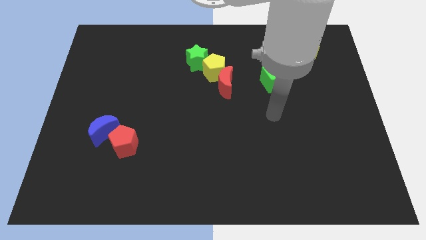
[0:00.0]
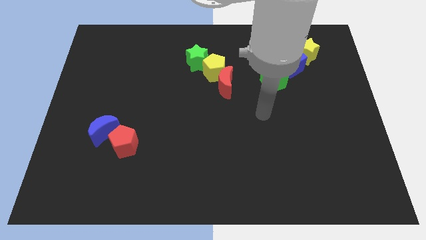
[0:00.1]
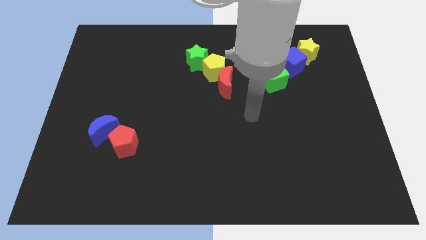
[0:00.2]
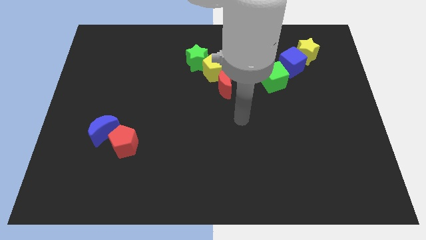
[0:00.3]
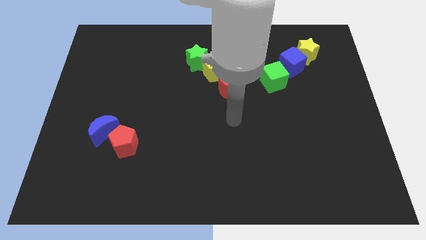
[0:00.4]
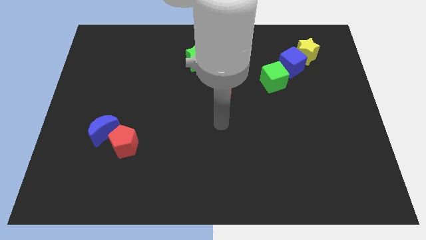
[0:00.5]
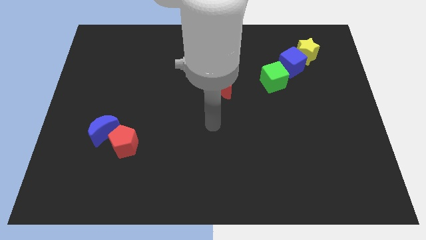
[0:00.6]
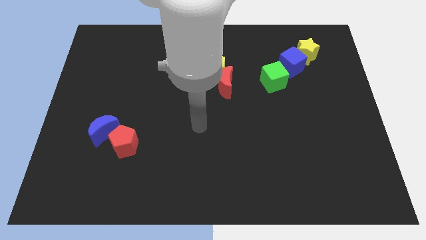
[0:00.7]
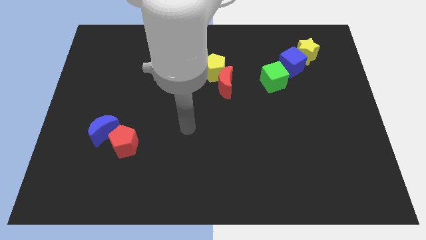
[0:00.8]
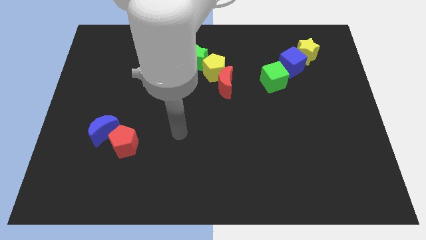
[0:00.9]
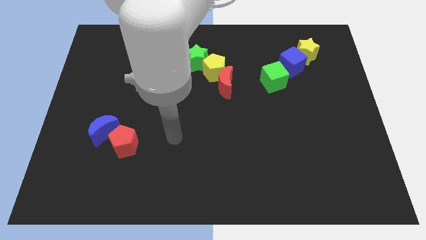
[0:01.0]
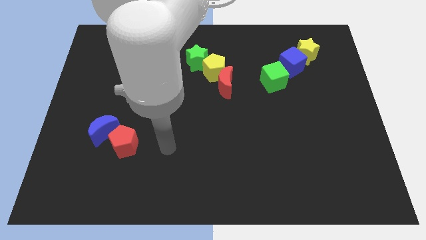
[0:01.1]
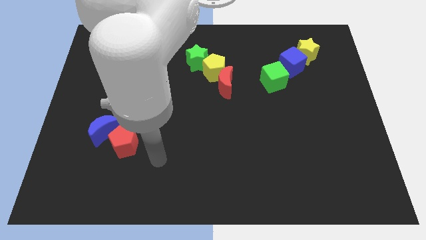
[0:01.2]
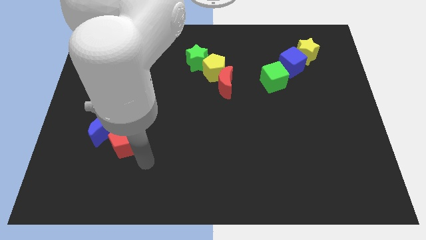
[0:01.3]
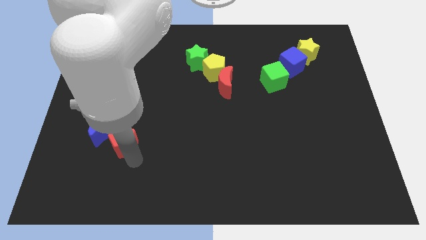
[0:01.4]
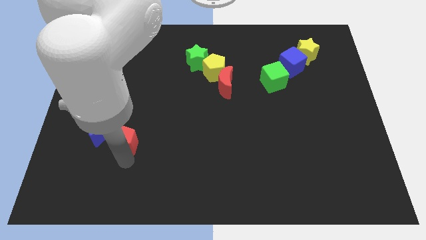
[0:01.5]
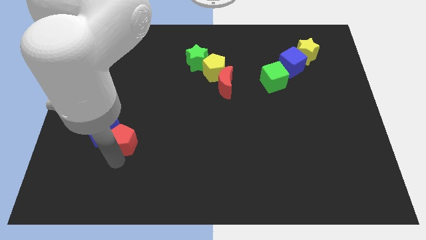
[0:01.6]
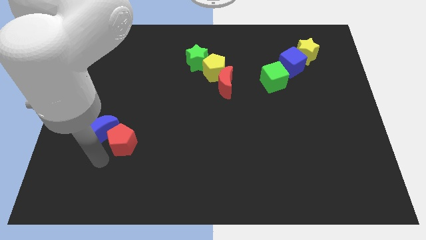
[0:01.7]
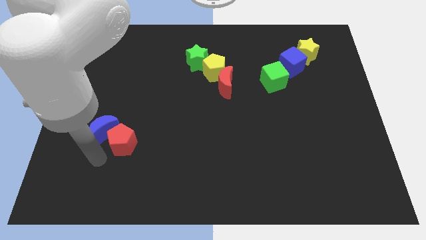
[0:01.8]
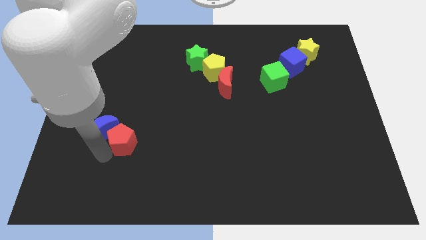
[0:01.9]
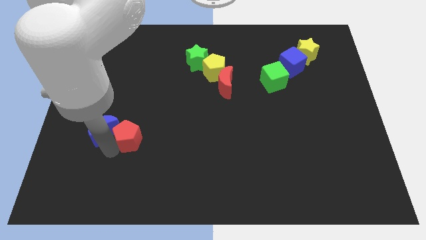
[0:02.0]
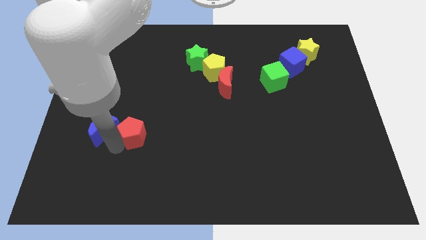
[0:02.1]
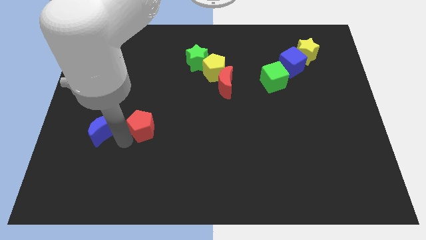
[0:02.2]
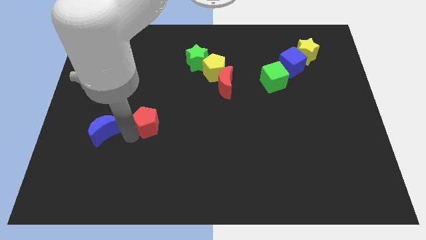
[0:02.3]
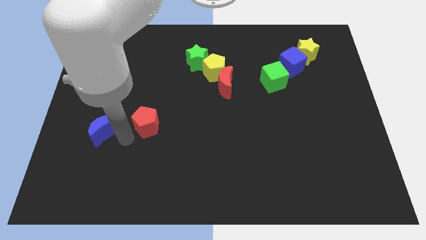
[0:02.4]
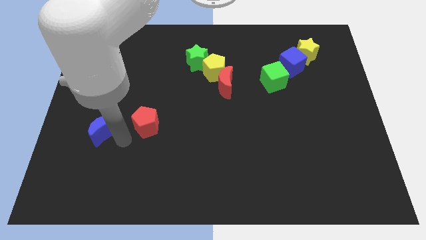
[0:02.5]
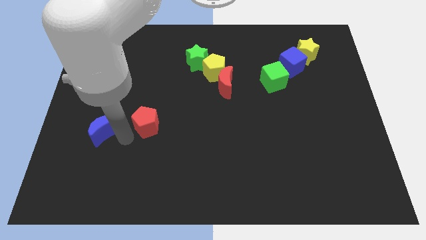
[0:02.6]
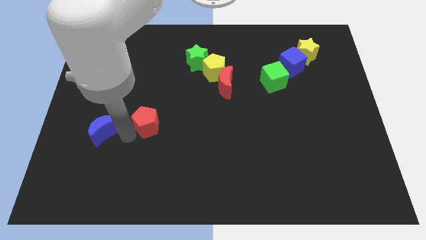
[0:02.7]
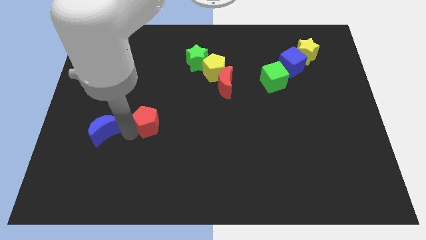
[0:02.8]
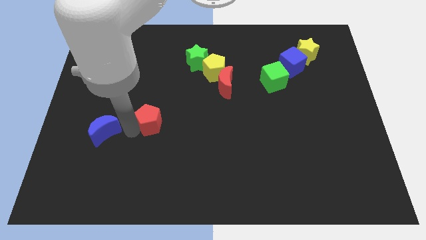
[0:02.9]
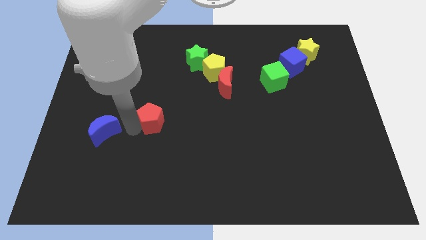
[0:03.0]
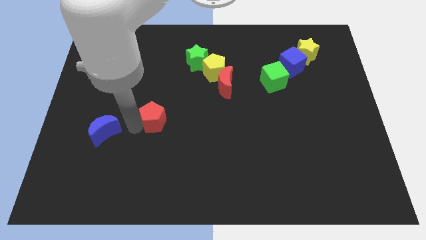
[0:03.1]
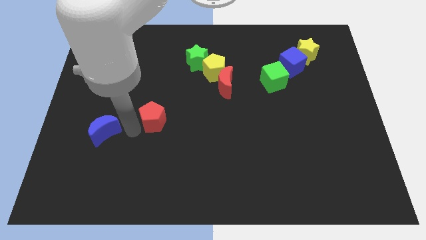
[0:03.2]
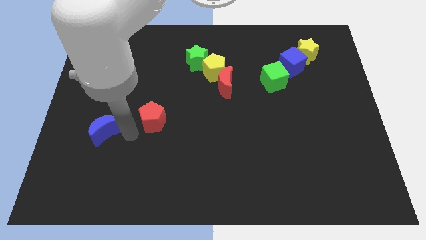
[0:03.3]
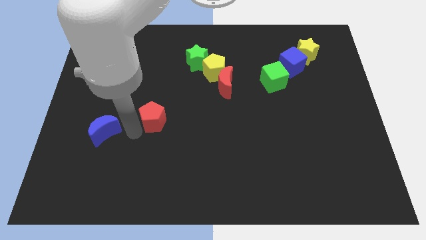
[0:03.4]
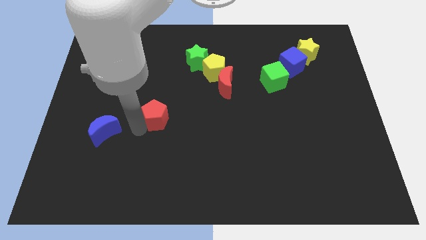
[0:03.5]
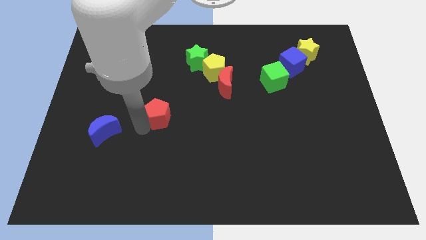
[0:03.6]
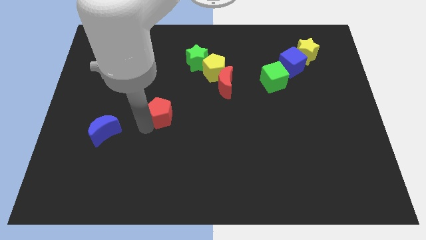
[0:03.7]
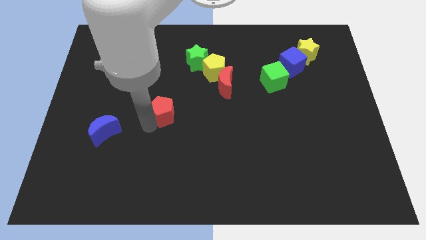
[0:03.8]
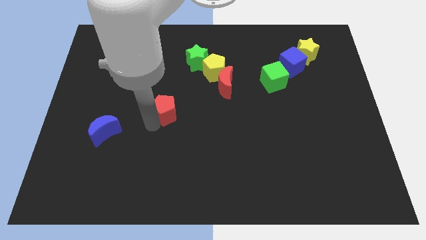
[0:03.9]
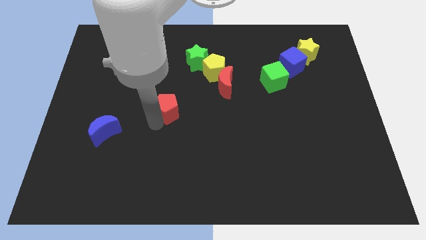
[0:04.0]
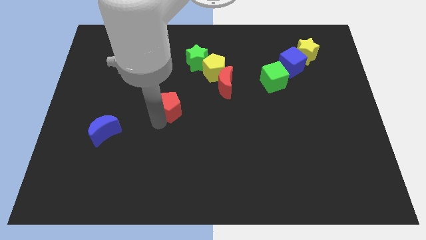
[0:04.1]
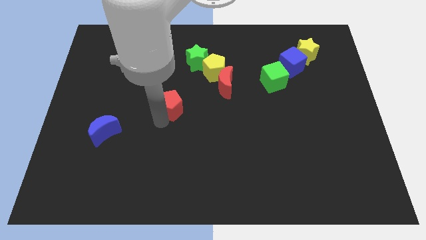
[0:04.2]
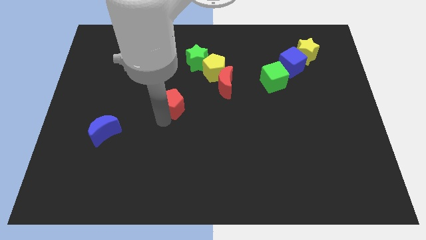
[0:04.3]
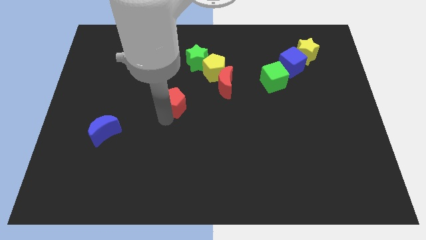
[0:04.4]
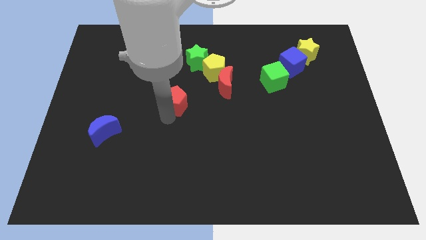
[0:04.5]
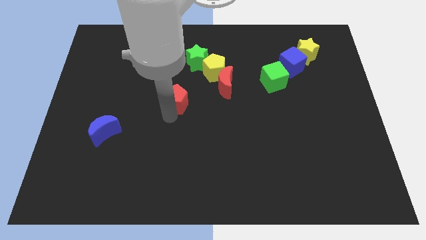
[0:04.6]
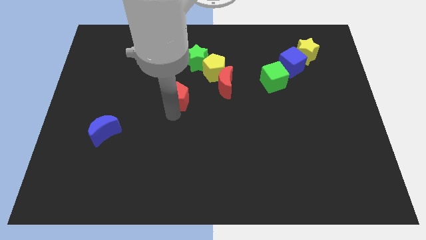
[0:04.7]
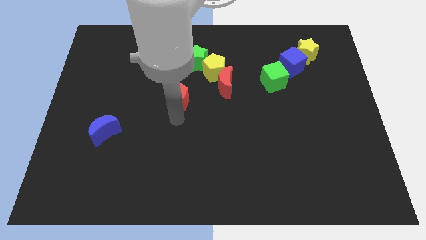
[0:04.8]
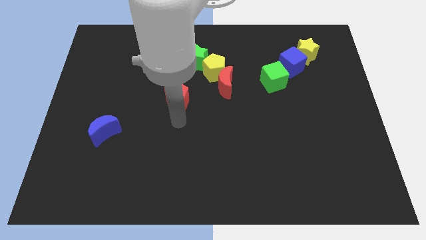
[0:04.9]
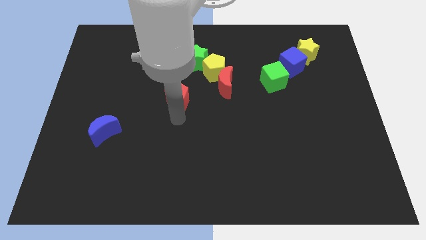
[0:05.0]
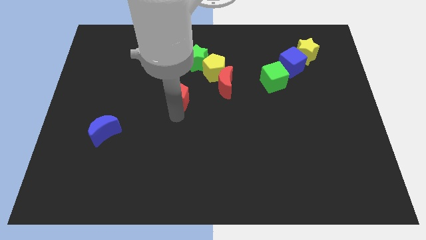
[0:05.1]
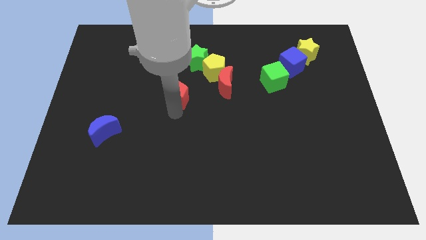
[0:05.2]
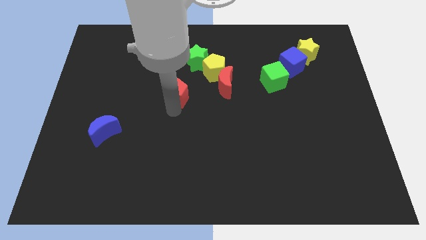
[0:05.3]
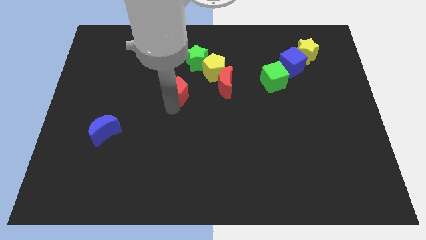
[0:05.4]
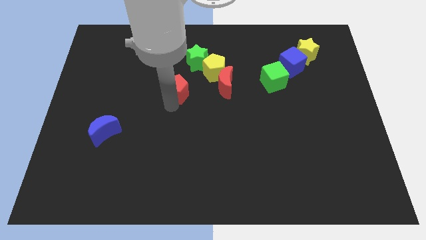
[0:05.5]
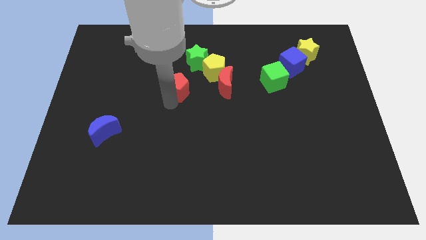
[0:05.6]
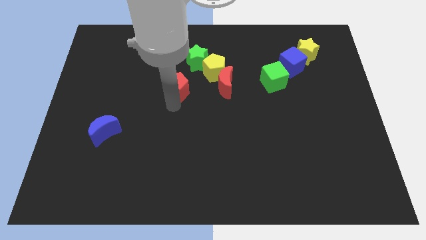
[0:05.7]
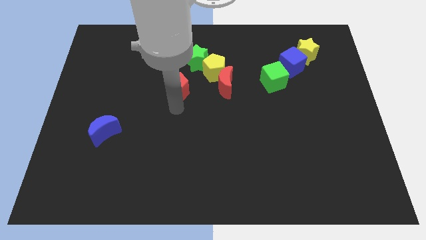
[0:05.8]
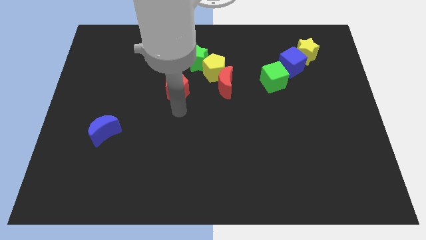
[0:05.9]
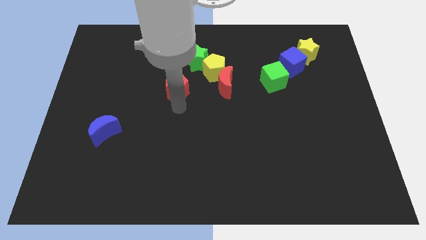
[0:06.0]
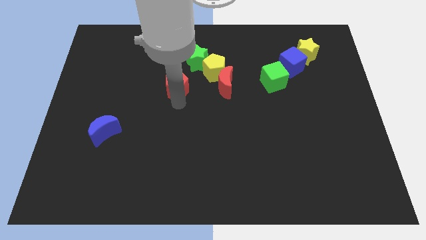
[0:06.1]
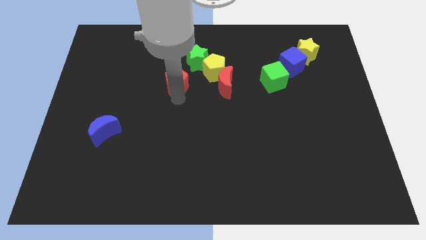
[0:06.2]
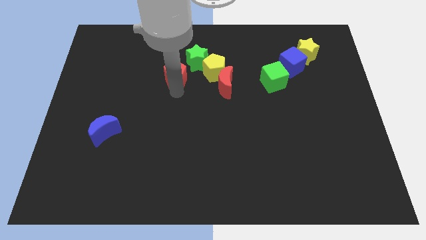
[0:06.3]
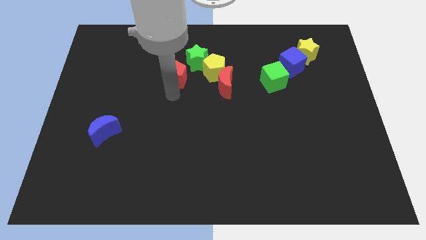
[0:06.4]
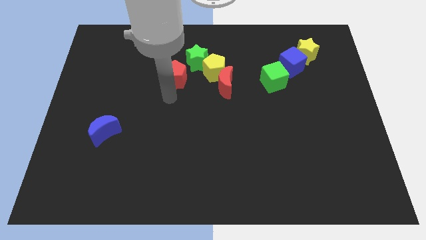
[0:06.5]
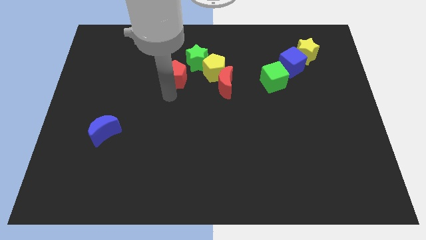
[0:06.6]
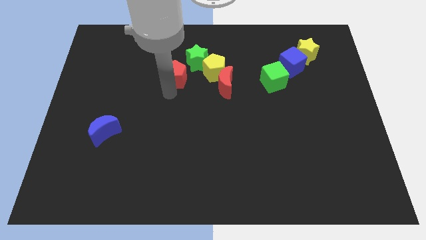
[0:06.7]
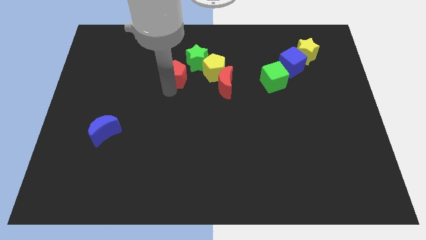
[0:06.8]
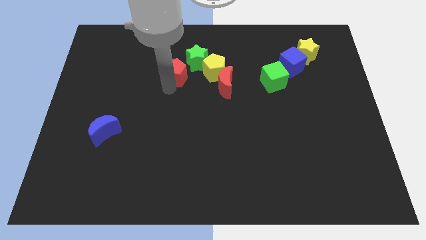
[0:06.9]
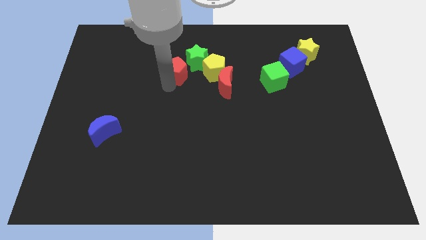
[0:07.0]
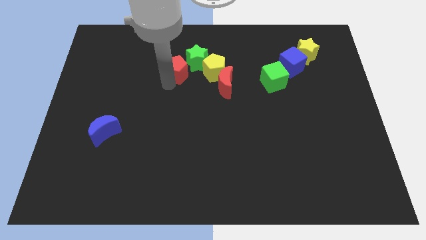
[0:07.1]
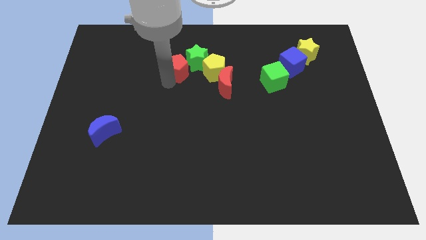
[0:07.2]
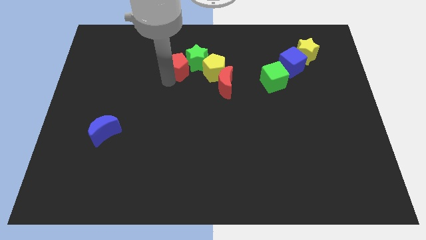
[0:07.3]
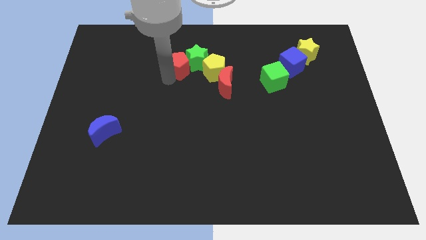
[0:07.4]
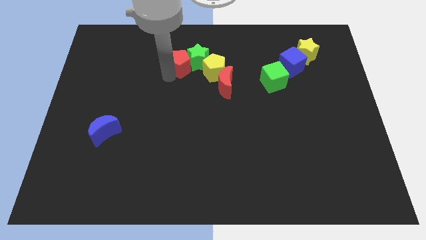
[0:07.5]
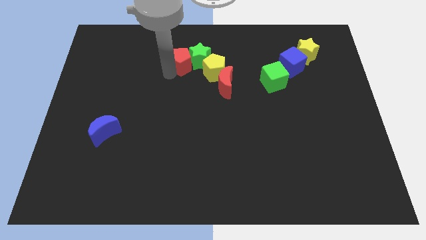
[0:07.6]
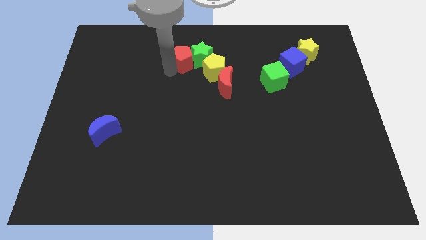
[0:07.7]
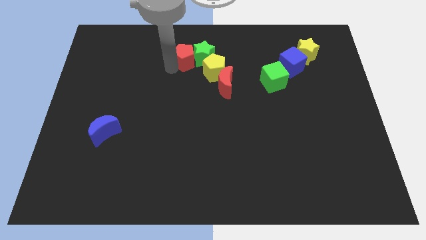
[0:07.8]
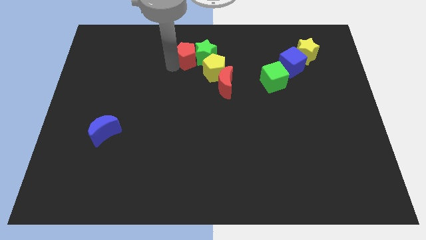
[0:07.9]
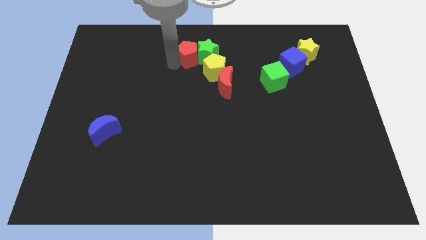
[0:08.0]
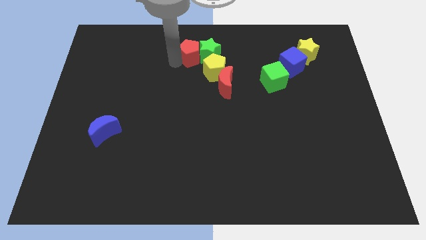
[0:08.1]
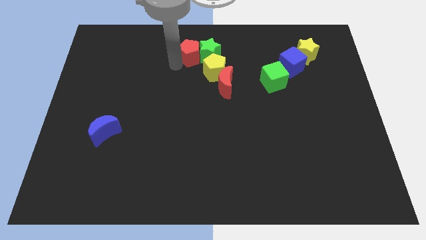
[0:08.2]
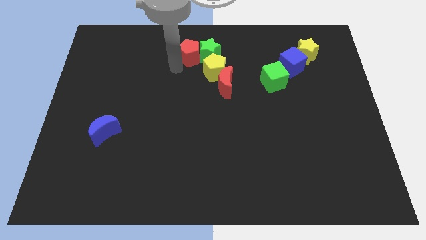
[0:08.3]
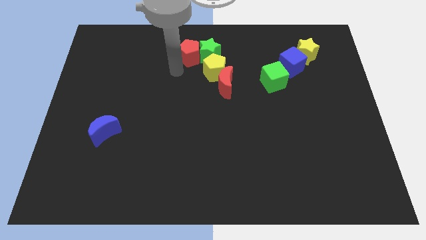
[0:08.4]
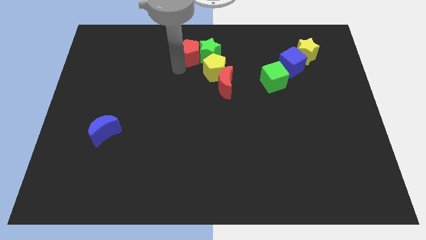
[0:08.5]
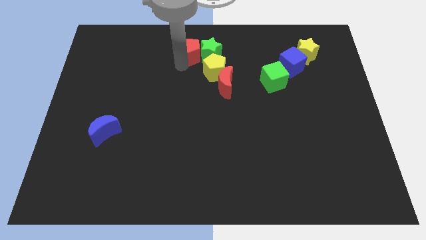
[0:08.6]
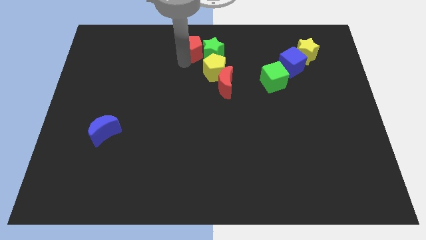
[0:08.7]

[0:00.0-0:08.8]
put the red pentagon to the towards your base
